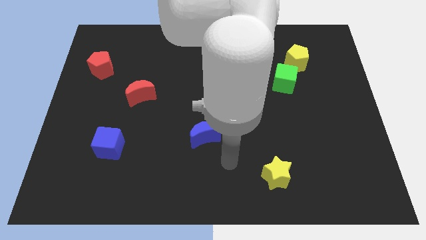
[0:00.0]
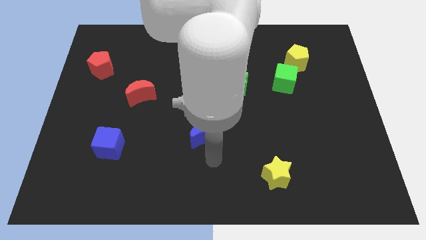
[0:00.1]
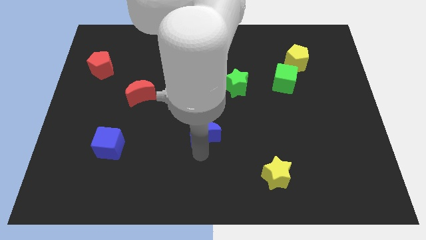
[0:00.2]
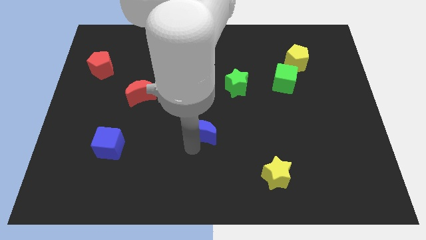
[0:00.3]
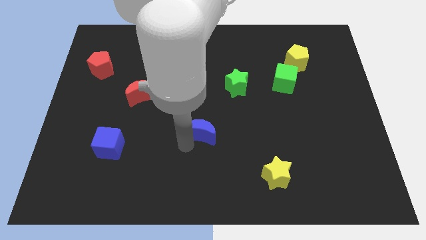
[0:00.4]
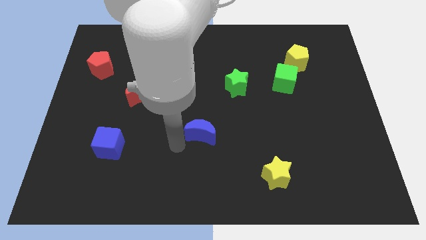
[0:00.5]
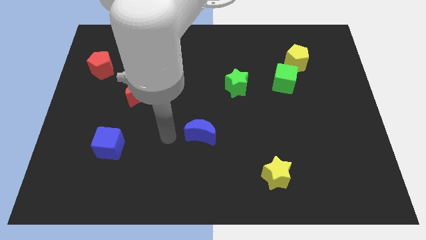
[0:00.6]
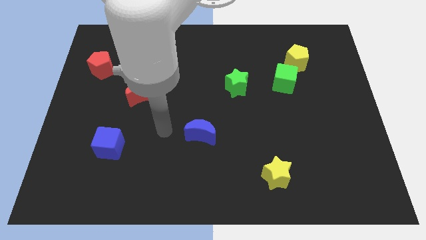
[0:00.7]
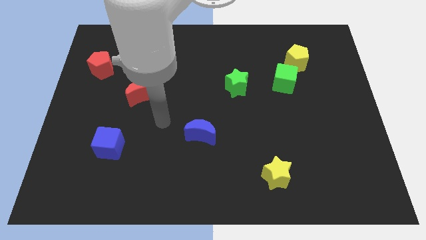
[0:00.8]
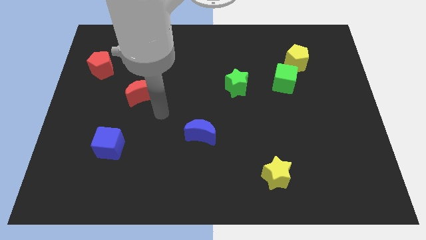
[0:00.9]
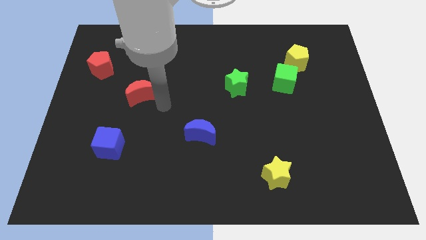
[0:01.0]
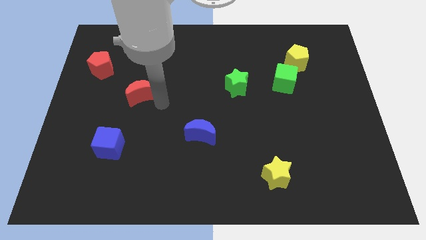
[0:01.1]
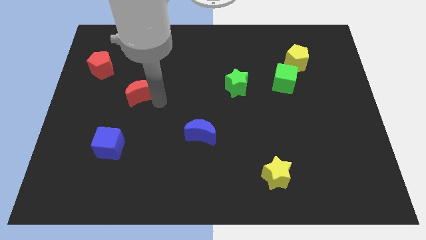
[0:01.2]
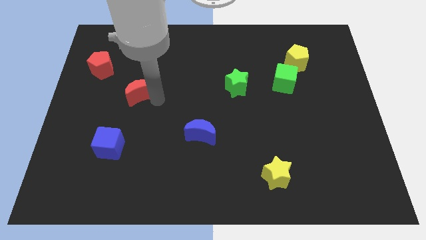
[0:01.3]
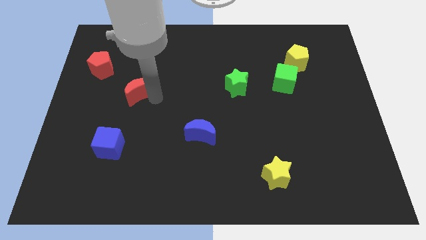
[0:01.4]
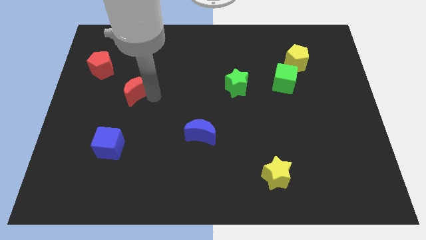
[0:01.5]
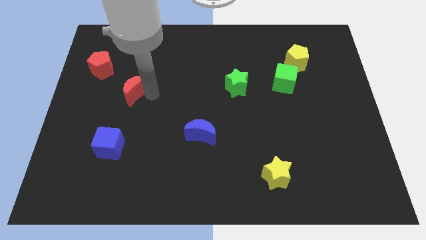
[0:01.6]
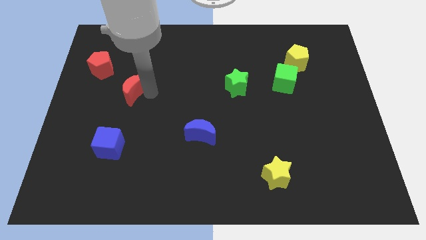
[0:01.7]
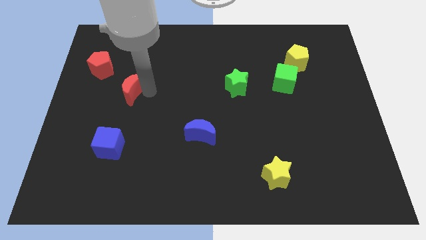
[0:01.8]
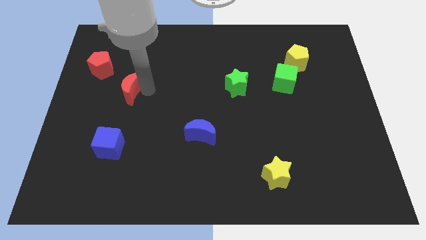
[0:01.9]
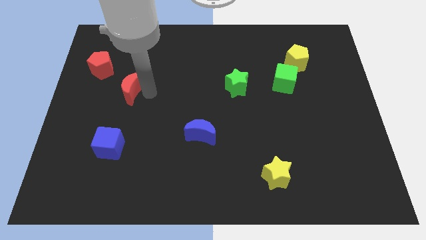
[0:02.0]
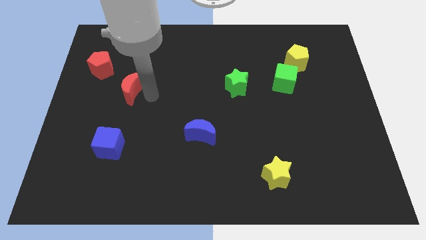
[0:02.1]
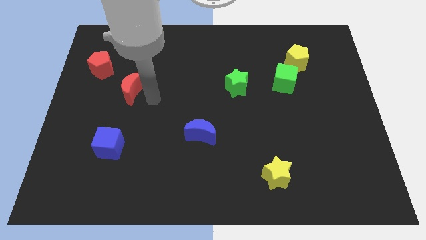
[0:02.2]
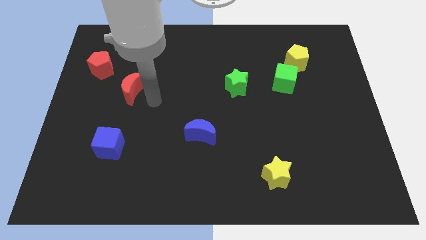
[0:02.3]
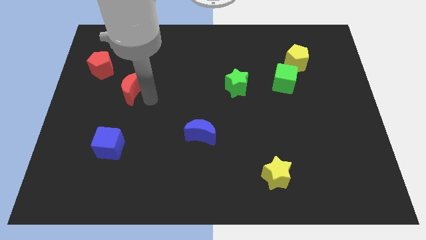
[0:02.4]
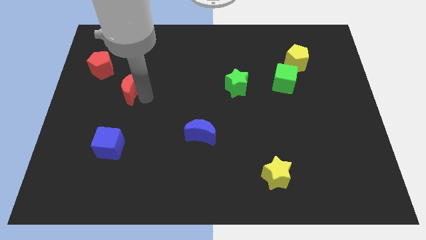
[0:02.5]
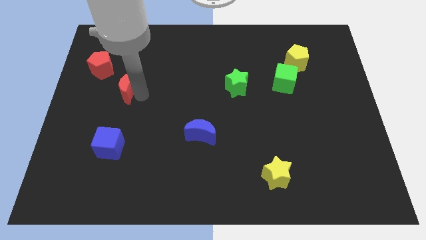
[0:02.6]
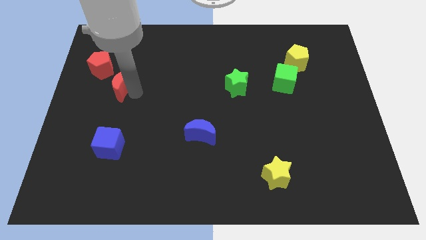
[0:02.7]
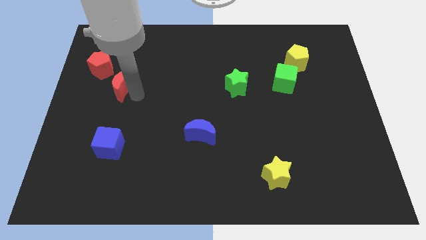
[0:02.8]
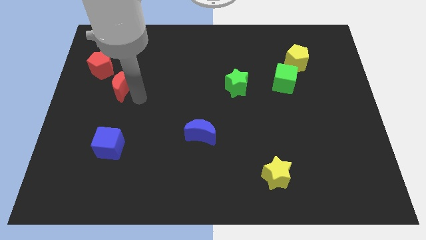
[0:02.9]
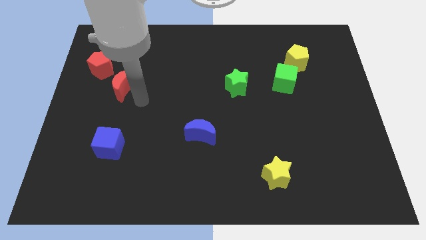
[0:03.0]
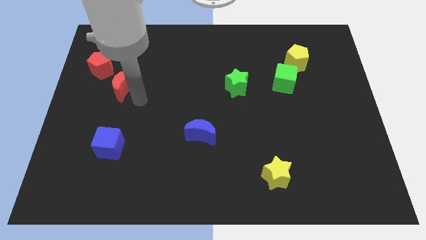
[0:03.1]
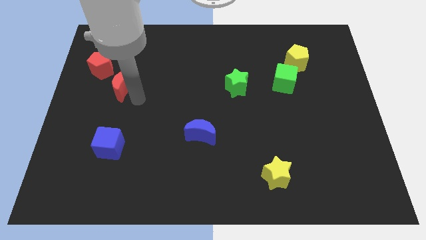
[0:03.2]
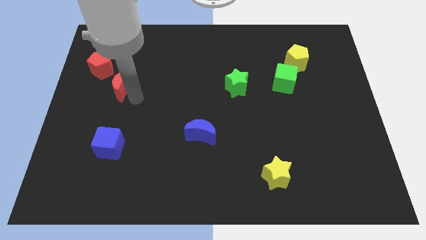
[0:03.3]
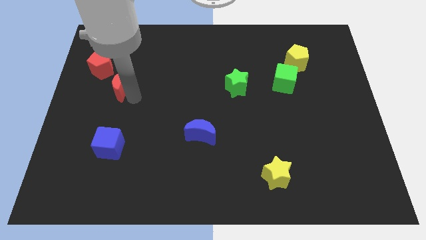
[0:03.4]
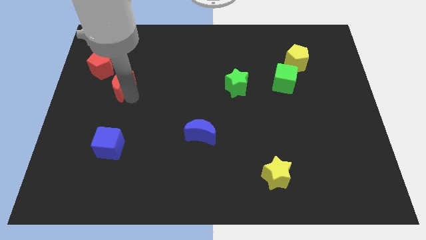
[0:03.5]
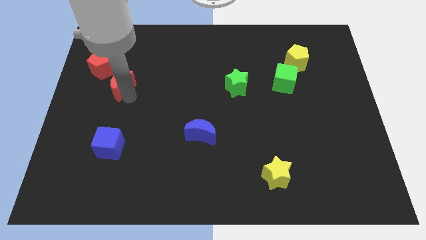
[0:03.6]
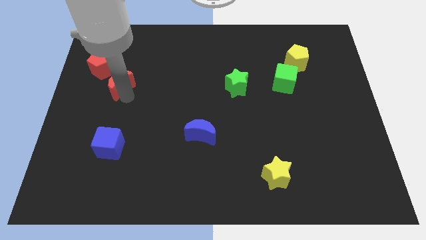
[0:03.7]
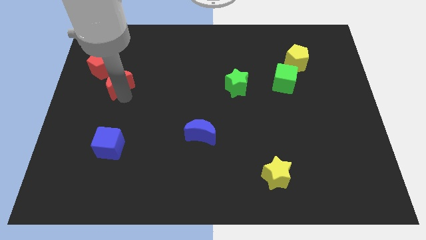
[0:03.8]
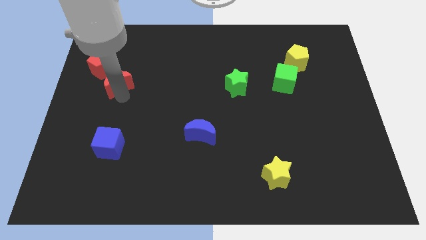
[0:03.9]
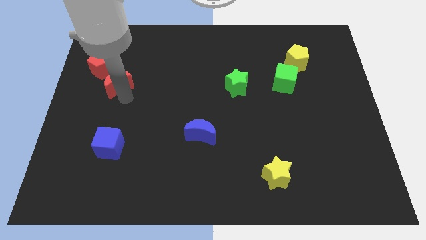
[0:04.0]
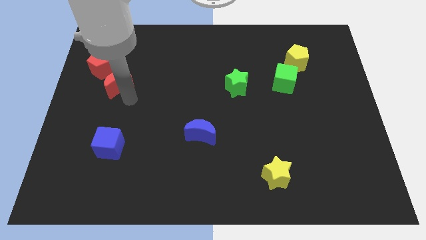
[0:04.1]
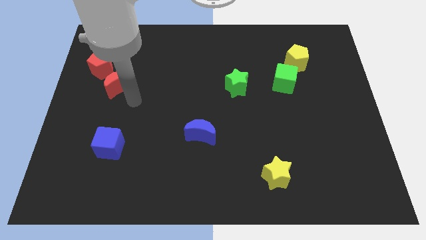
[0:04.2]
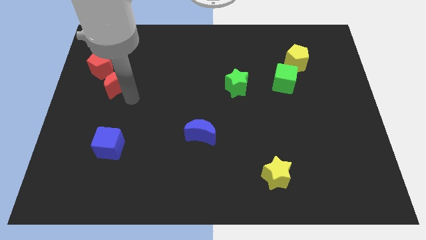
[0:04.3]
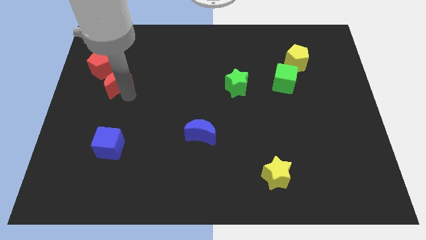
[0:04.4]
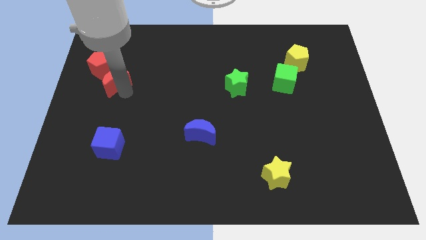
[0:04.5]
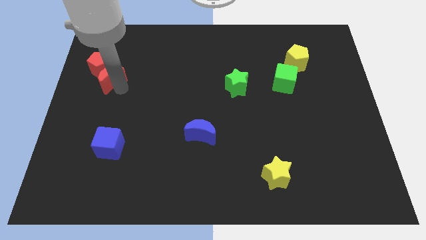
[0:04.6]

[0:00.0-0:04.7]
push the red moon close to the red pentagon

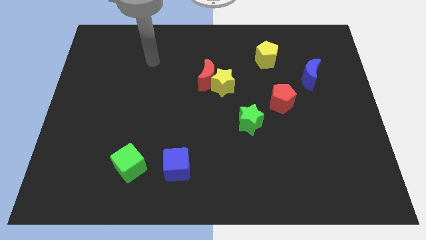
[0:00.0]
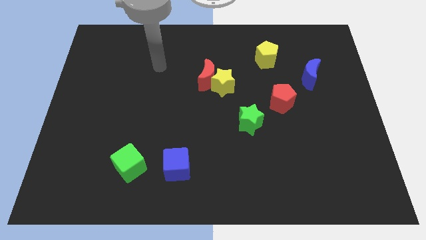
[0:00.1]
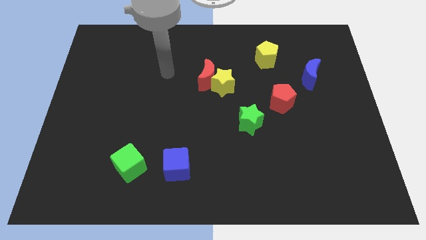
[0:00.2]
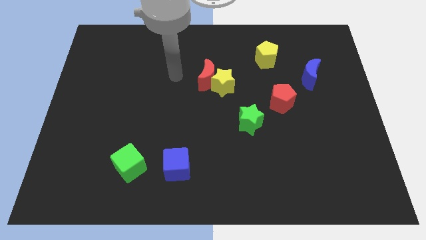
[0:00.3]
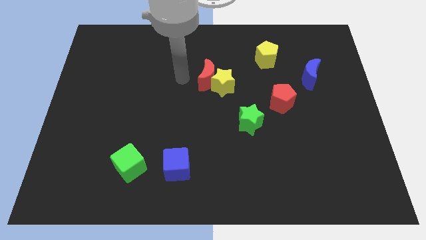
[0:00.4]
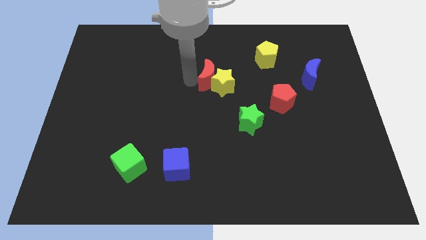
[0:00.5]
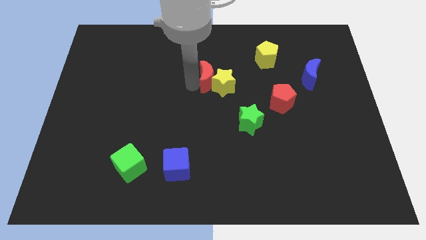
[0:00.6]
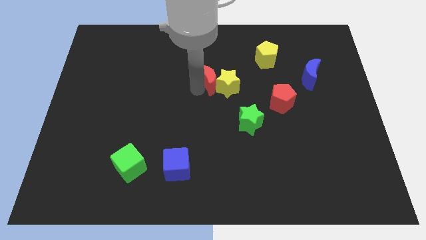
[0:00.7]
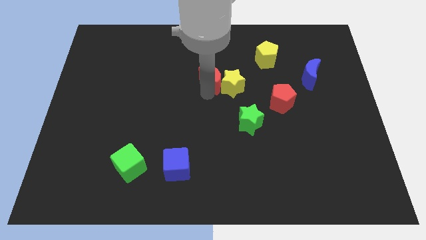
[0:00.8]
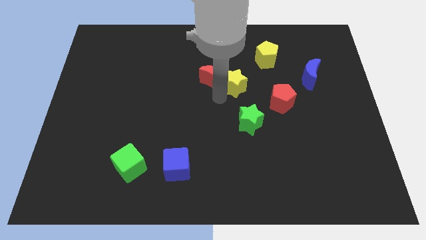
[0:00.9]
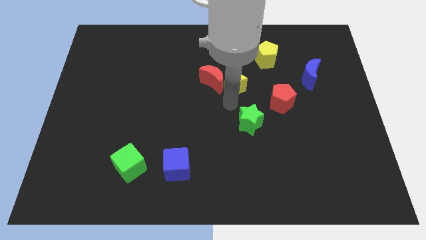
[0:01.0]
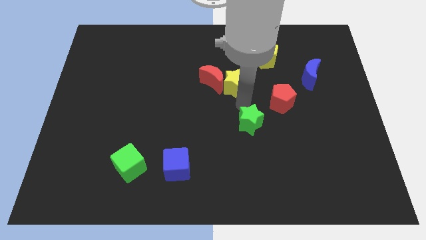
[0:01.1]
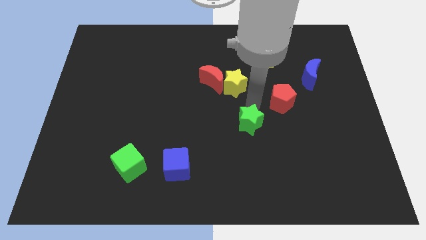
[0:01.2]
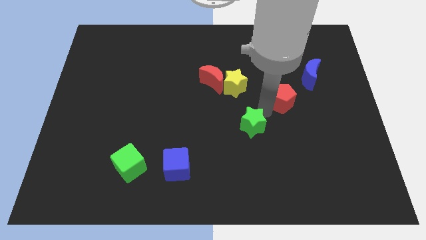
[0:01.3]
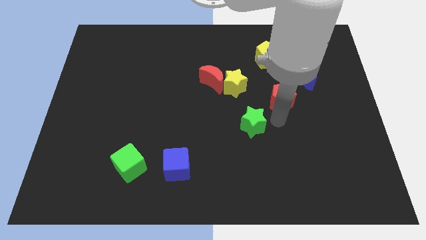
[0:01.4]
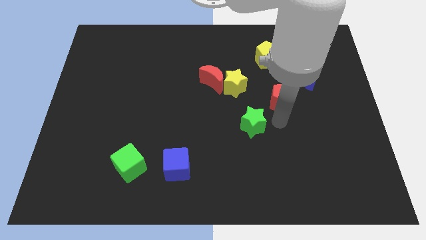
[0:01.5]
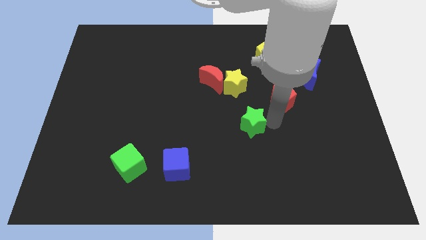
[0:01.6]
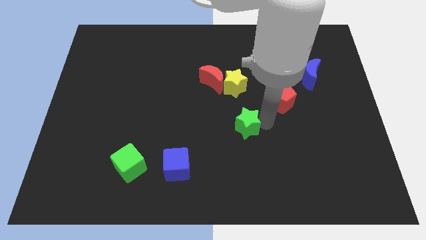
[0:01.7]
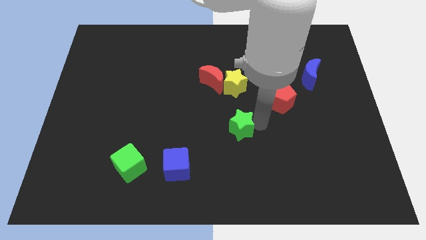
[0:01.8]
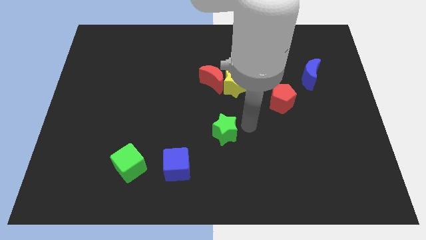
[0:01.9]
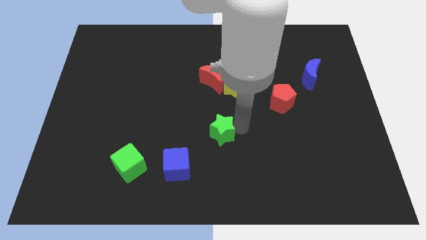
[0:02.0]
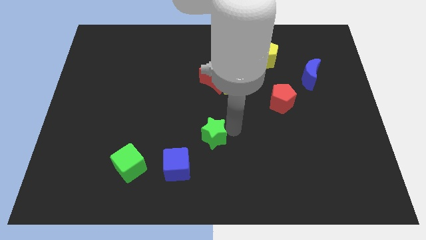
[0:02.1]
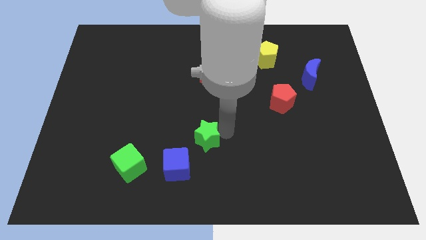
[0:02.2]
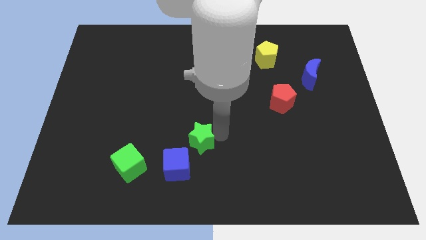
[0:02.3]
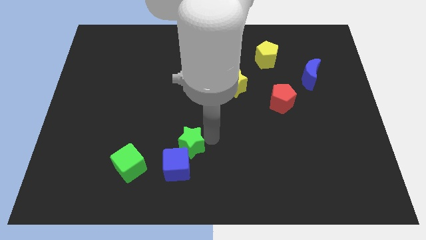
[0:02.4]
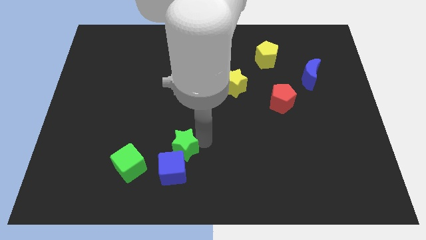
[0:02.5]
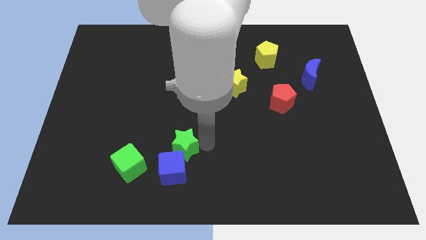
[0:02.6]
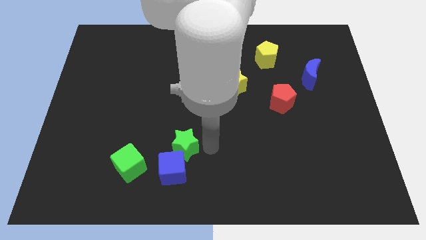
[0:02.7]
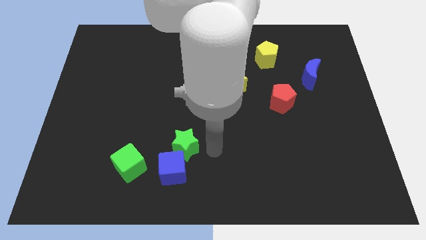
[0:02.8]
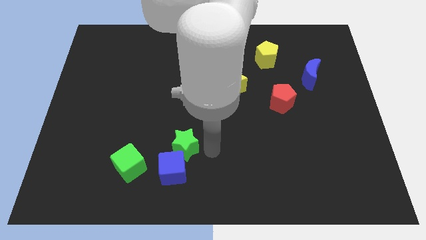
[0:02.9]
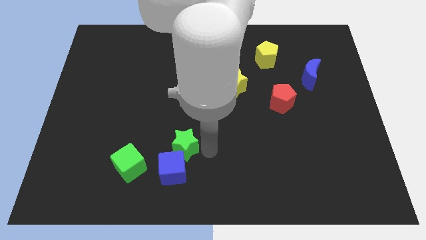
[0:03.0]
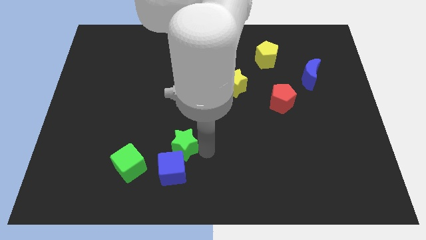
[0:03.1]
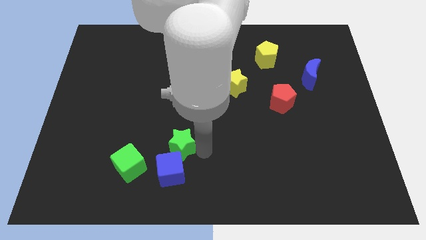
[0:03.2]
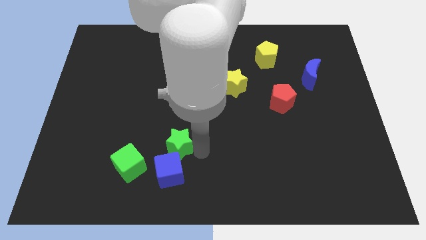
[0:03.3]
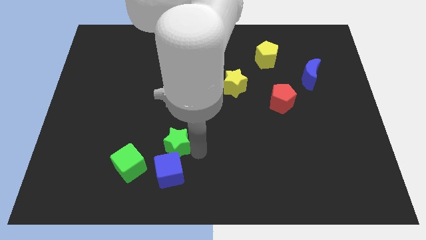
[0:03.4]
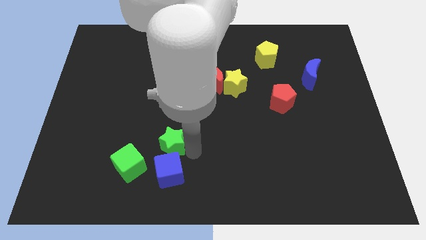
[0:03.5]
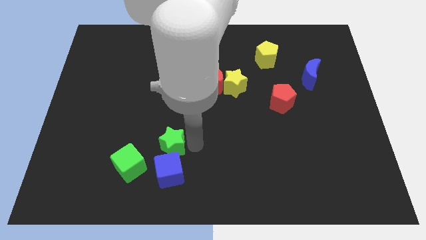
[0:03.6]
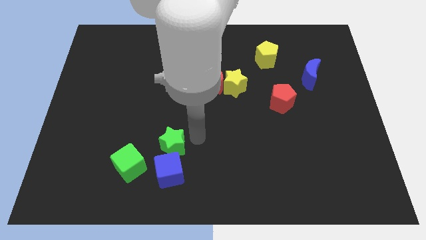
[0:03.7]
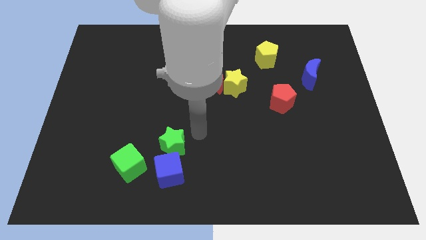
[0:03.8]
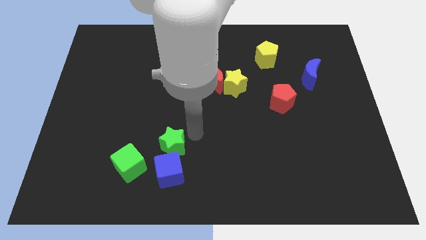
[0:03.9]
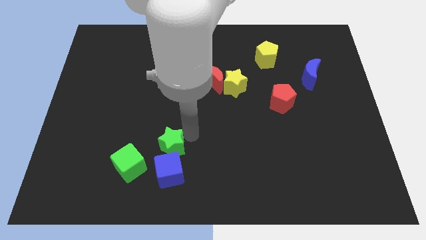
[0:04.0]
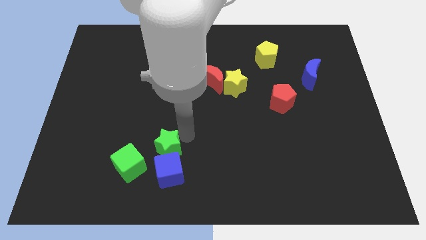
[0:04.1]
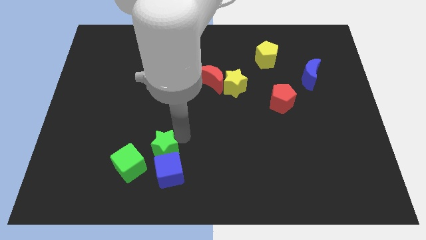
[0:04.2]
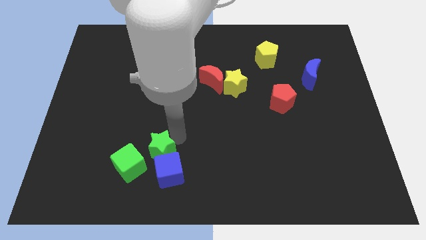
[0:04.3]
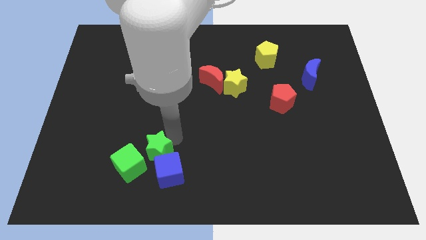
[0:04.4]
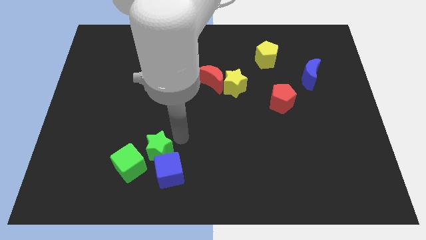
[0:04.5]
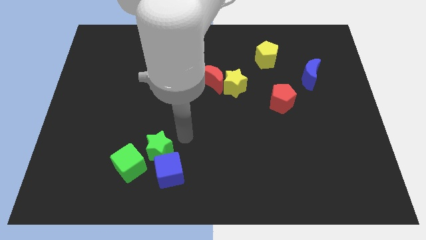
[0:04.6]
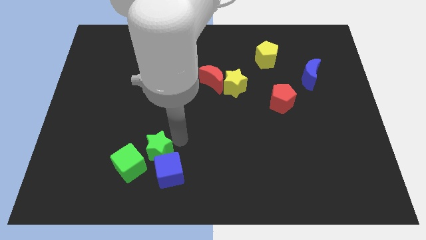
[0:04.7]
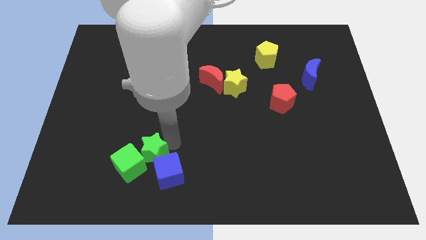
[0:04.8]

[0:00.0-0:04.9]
move the green star to the green cube
